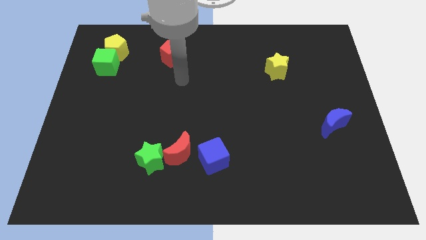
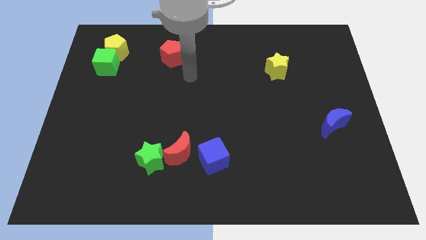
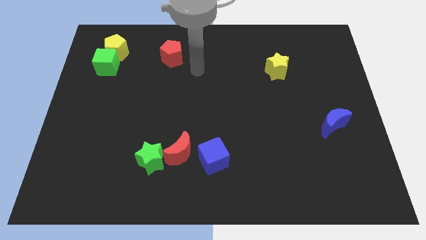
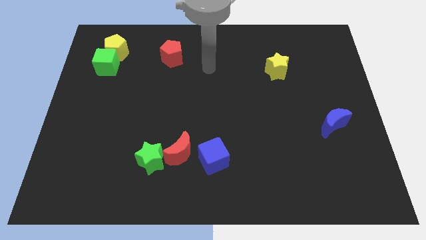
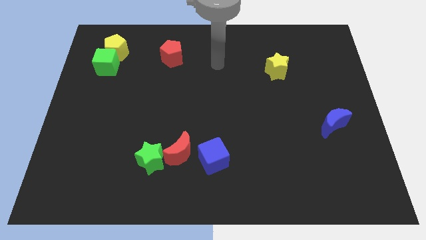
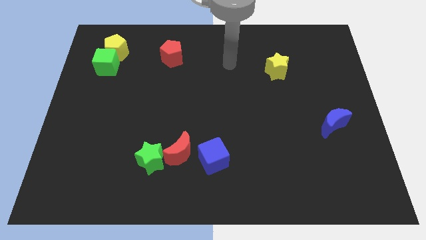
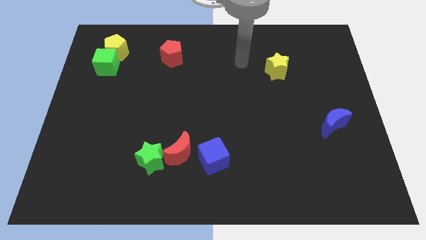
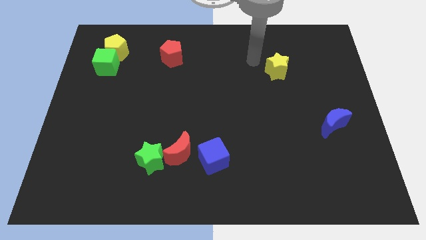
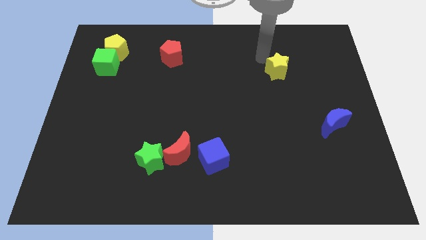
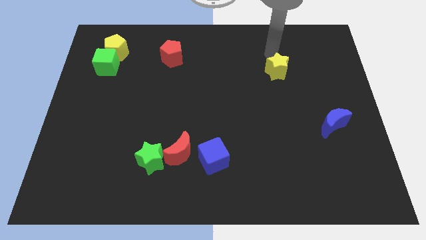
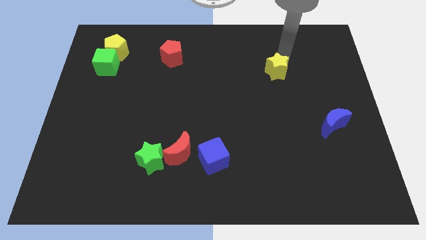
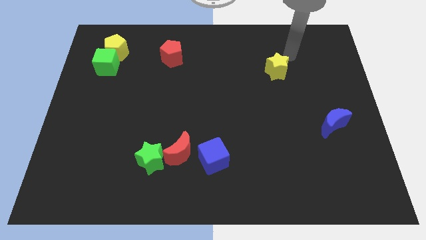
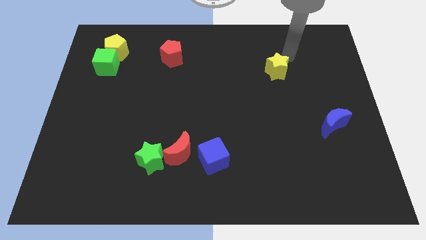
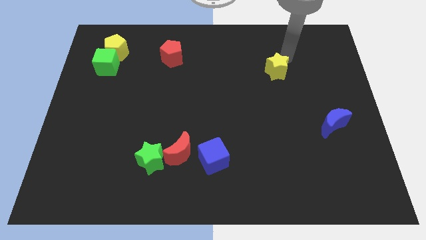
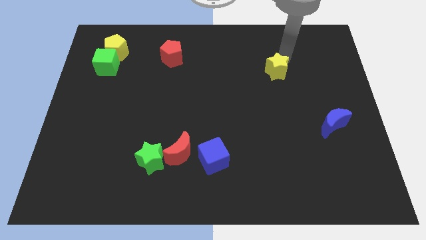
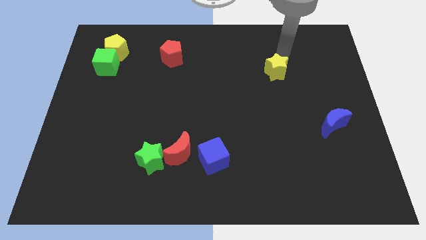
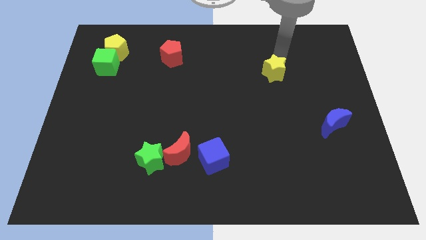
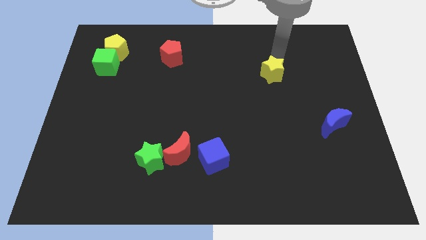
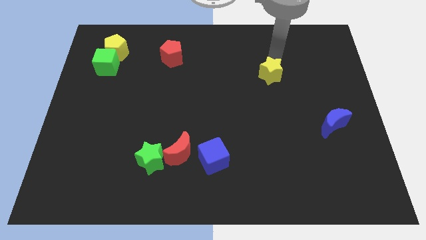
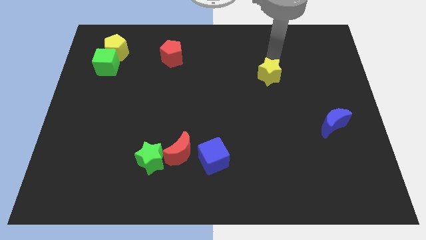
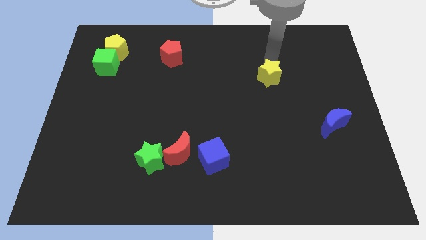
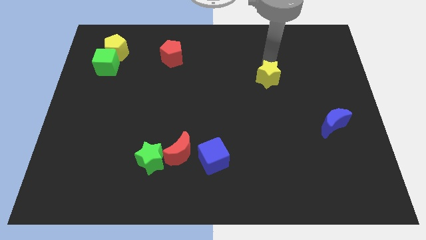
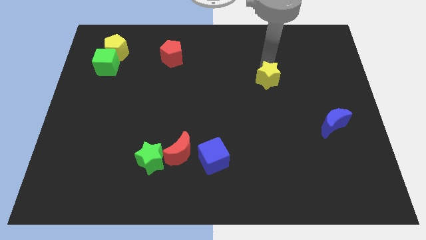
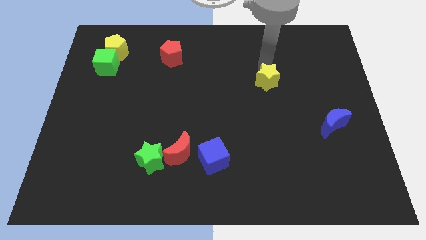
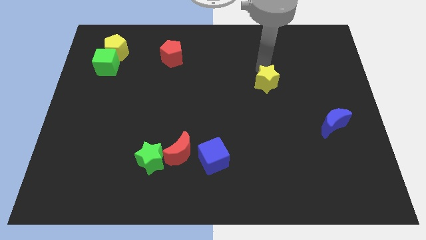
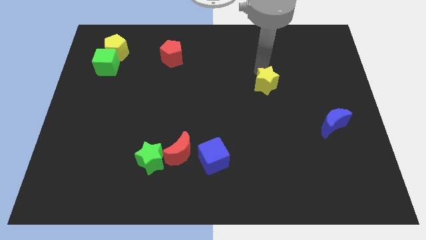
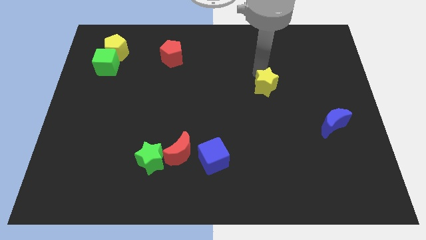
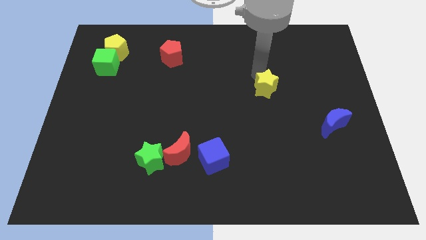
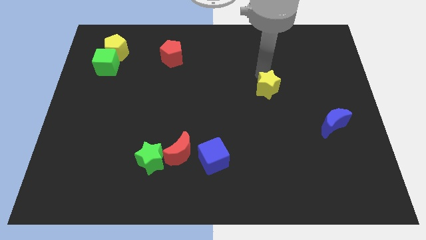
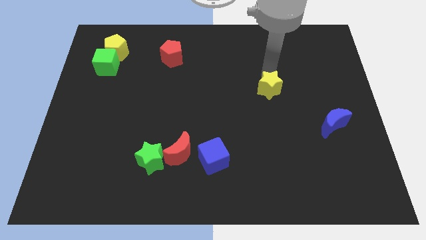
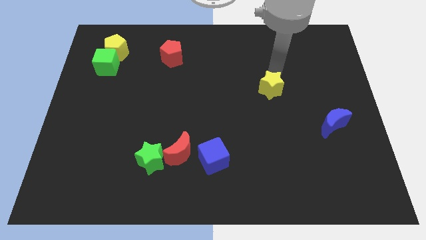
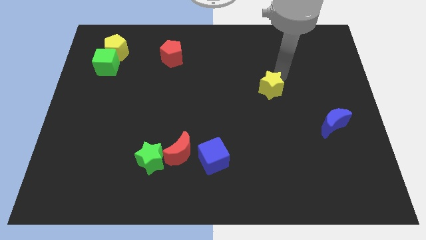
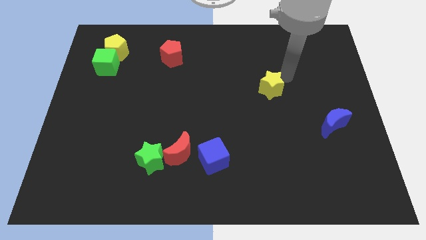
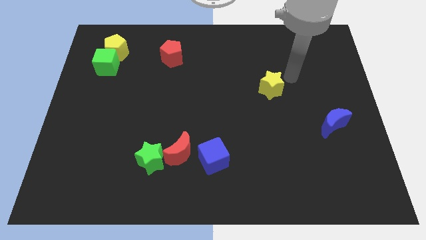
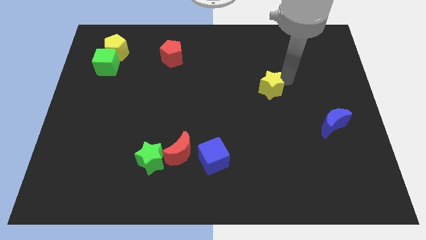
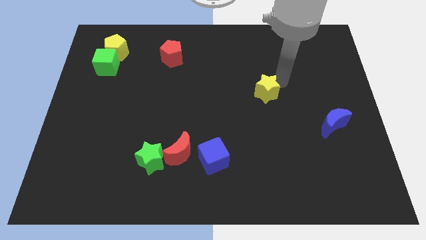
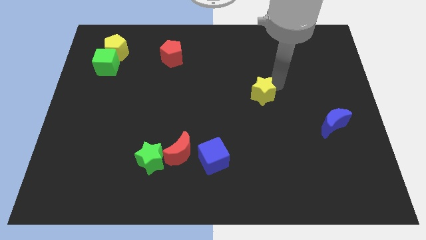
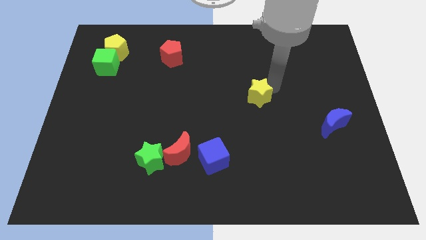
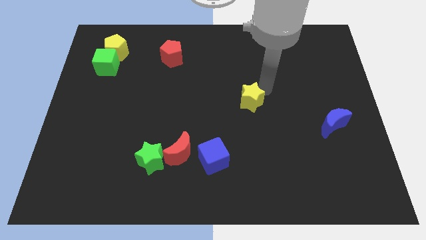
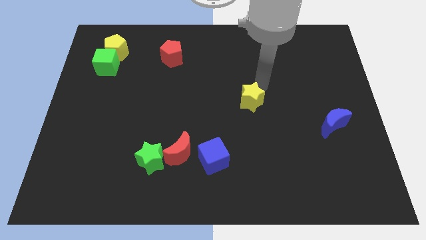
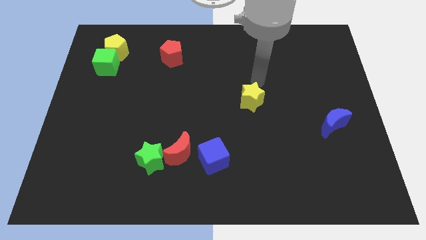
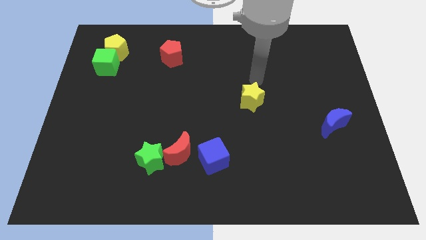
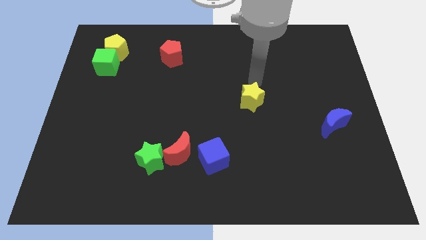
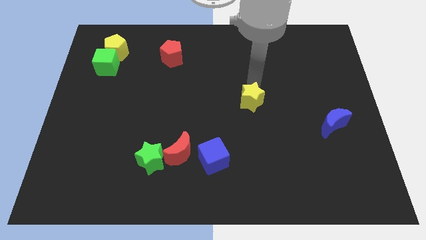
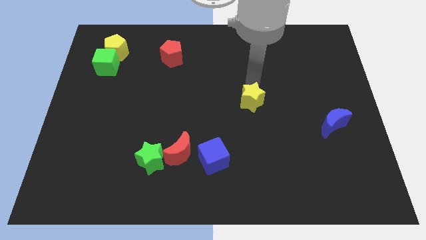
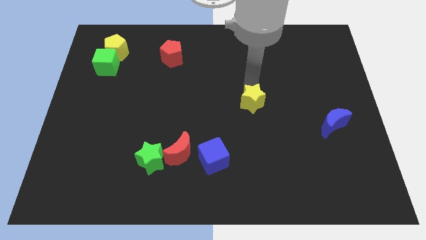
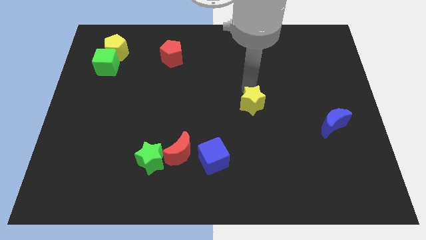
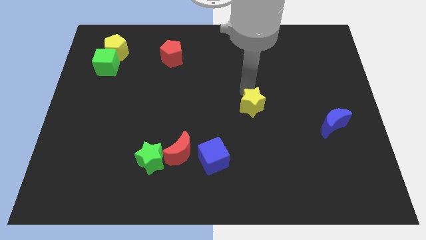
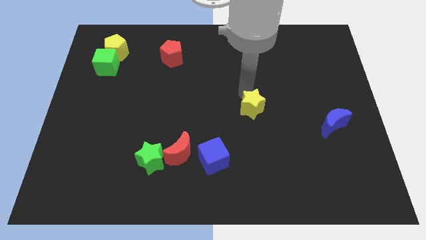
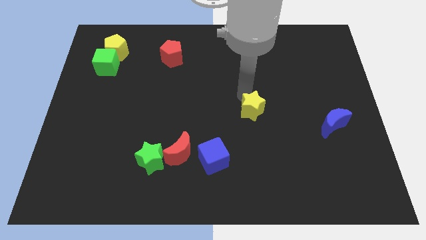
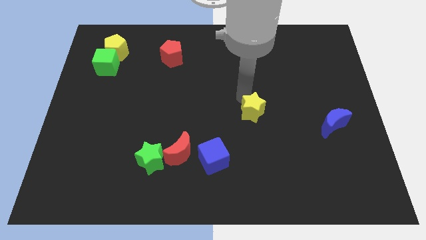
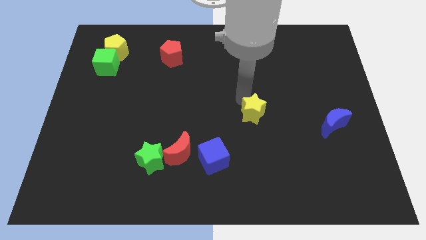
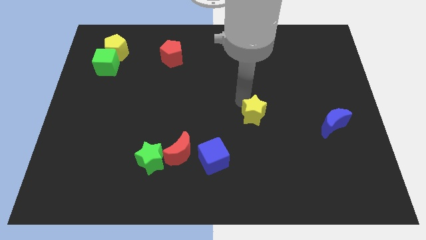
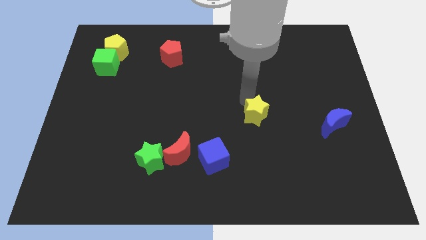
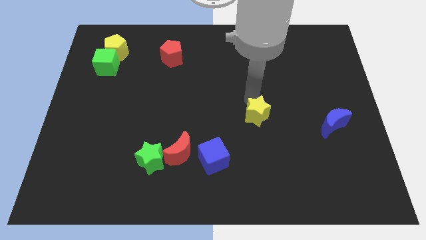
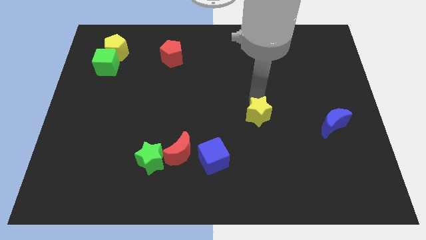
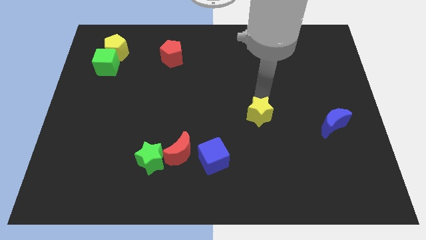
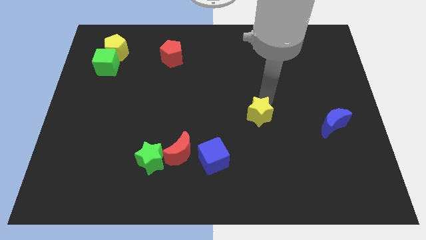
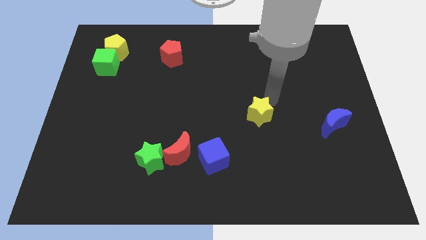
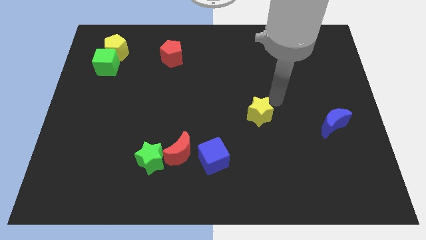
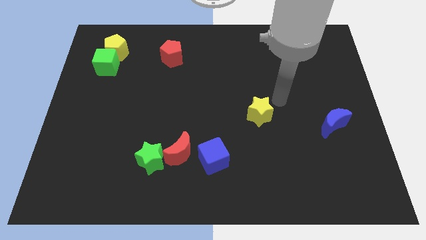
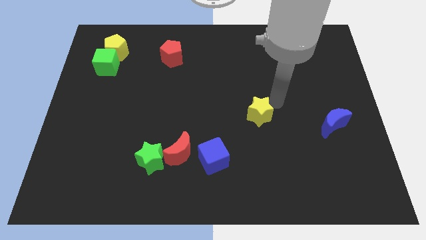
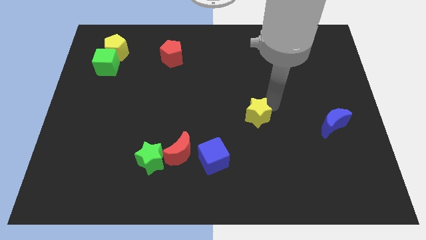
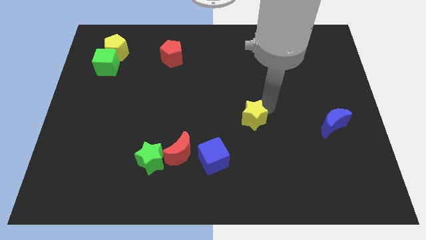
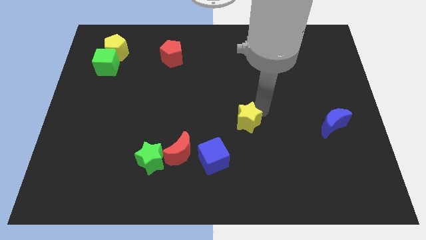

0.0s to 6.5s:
move the yellow star diagonally up and to the right of the blue cube

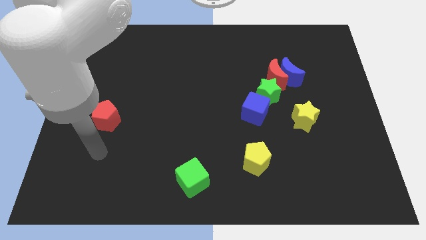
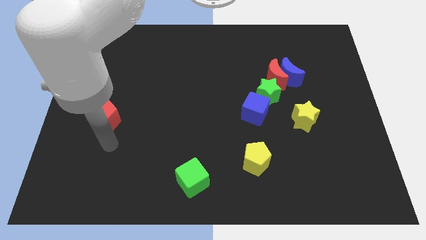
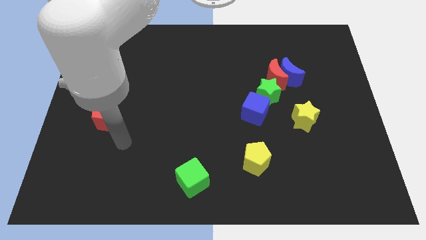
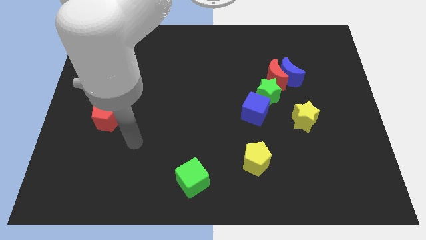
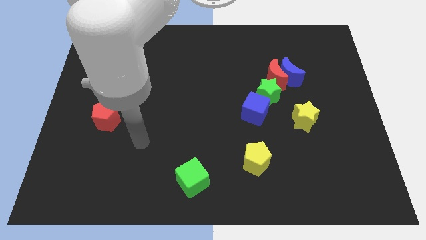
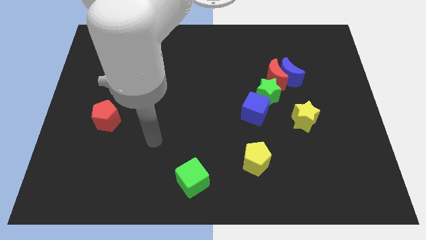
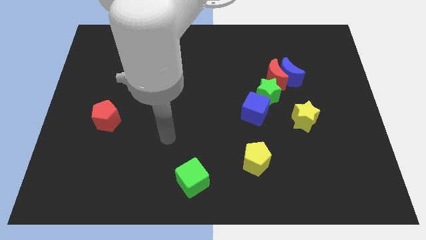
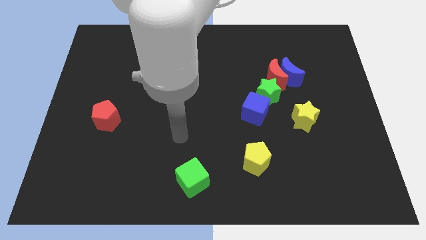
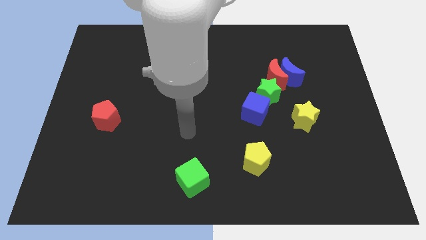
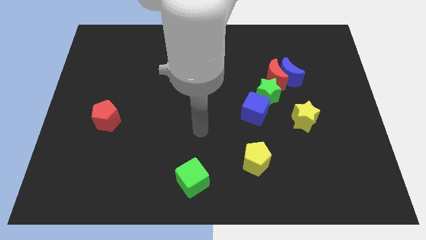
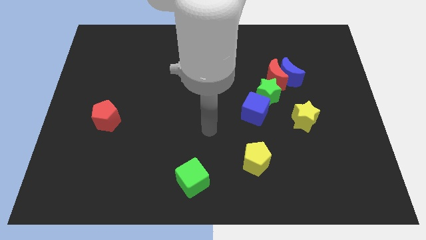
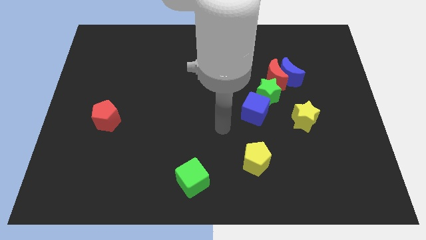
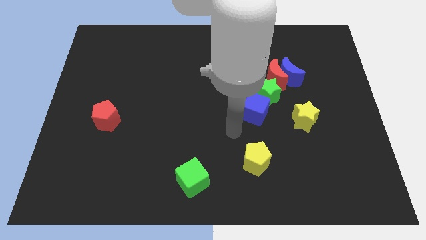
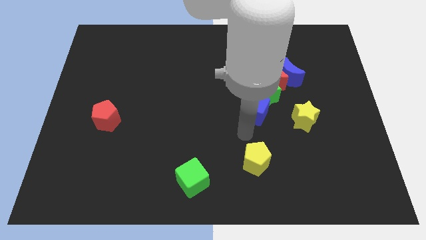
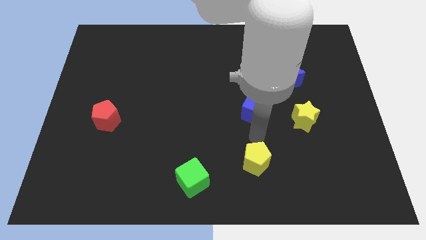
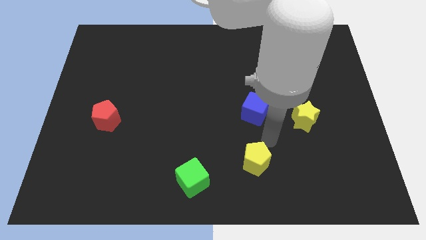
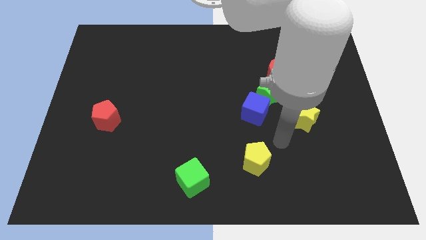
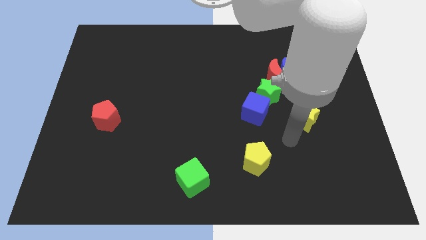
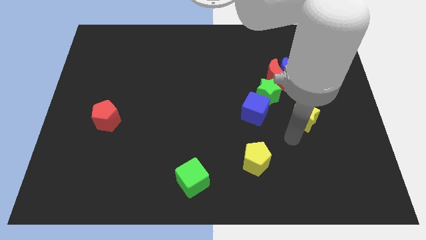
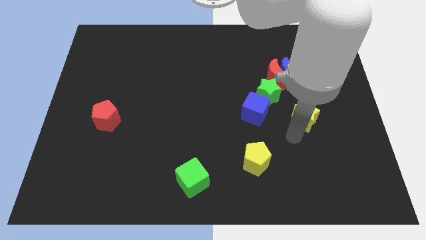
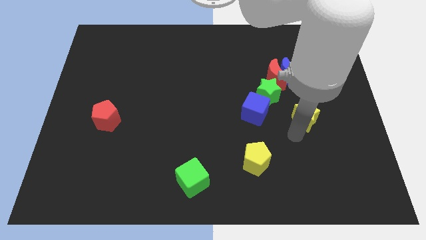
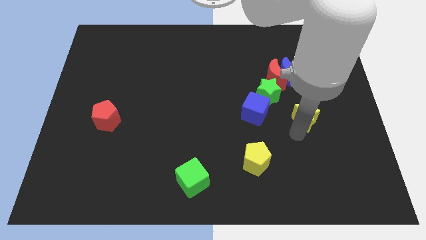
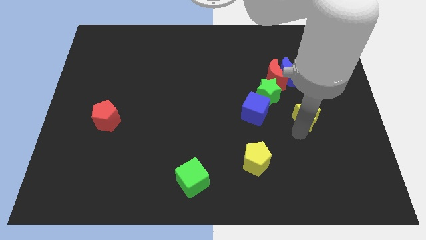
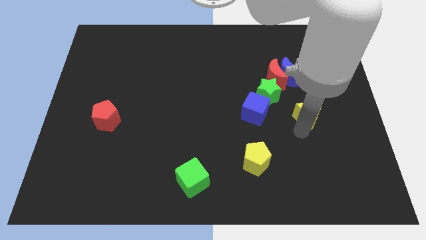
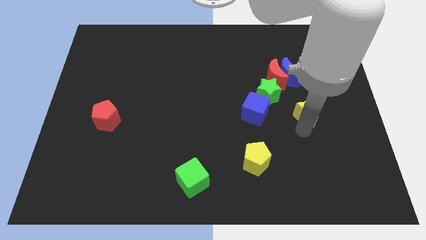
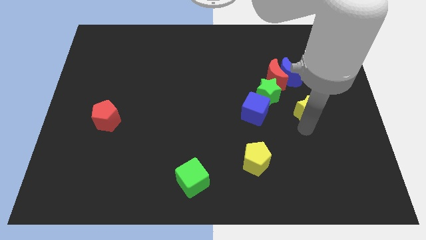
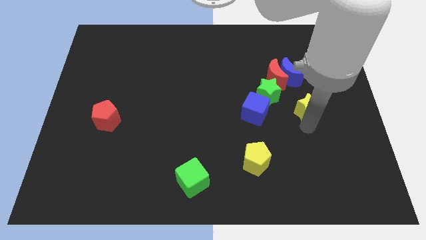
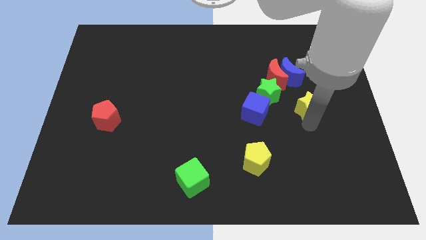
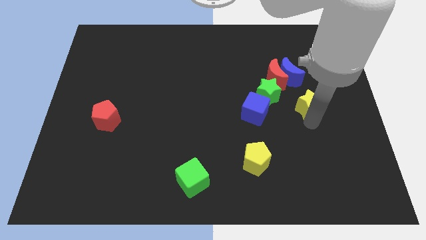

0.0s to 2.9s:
put the yellow star diagonally down and to the right of the blue moon
